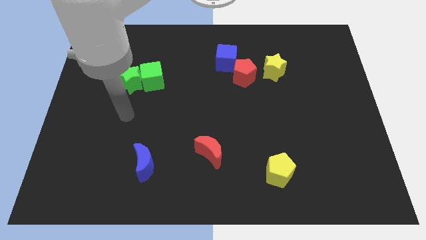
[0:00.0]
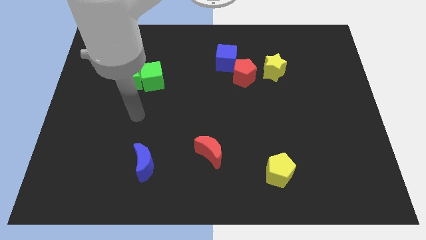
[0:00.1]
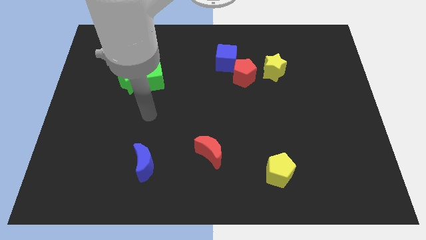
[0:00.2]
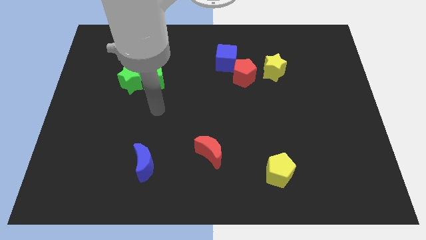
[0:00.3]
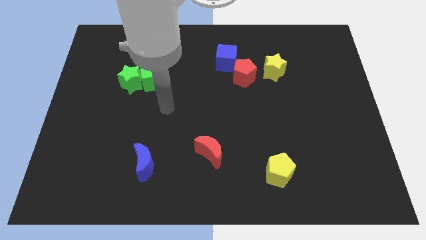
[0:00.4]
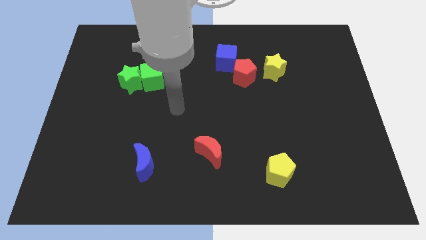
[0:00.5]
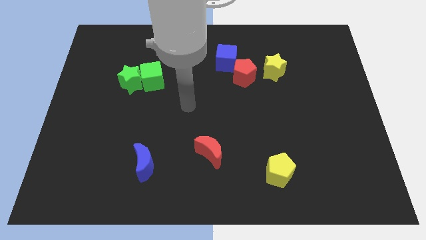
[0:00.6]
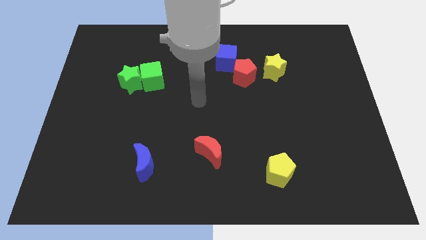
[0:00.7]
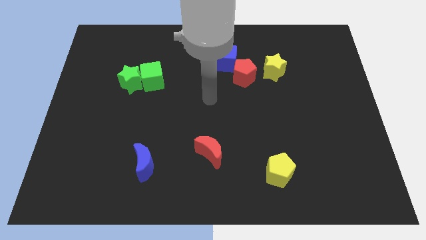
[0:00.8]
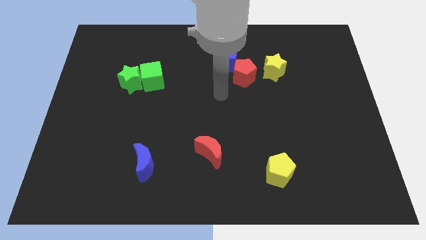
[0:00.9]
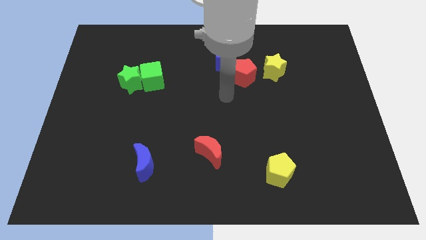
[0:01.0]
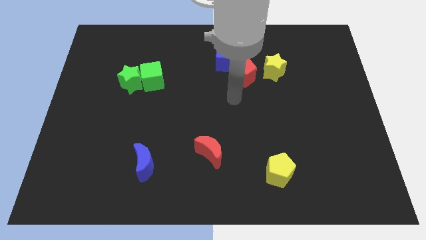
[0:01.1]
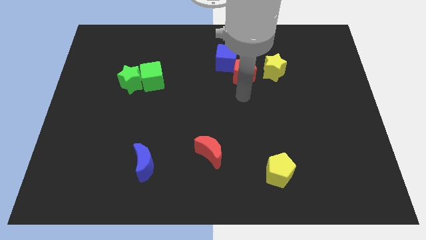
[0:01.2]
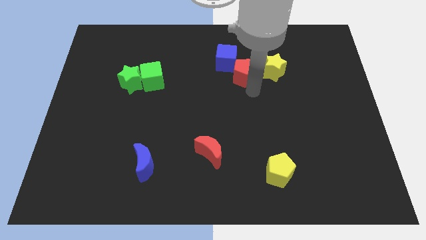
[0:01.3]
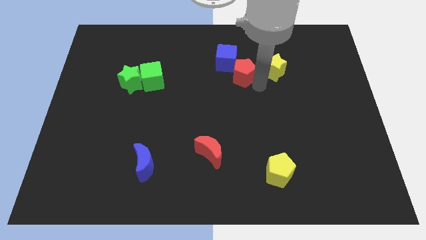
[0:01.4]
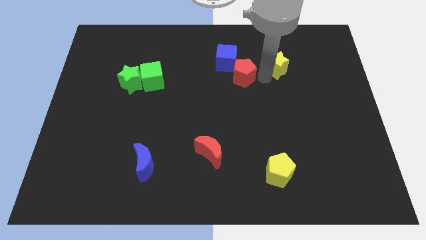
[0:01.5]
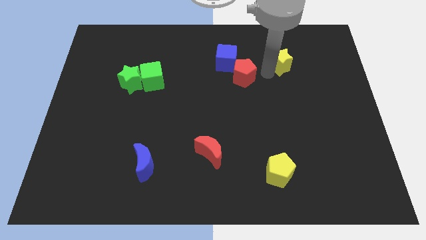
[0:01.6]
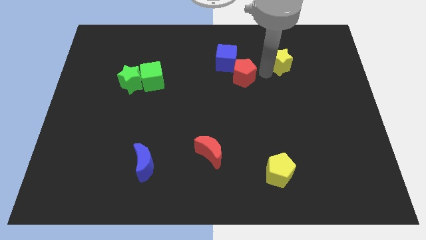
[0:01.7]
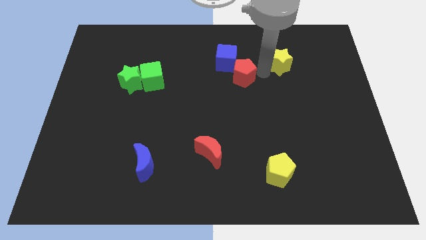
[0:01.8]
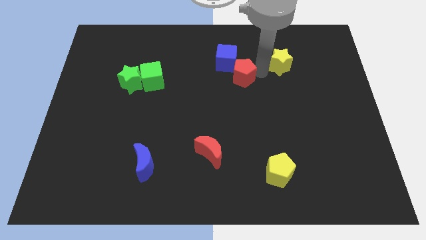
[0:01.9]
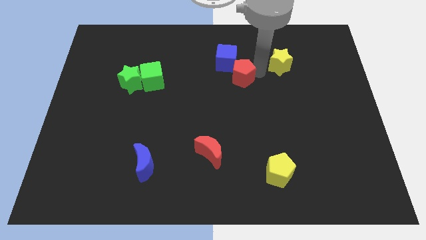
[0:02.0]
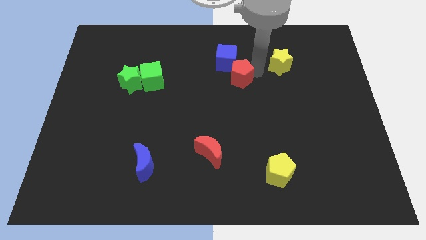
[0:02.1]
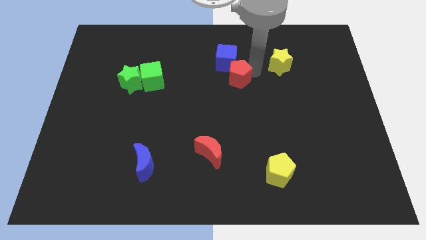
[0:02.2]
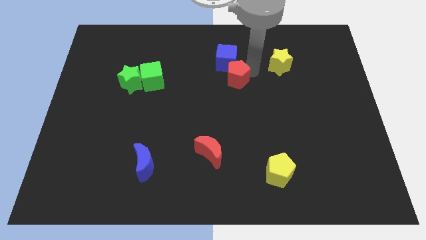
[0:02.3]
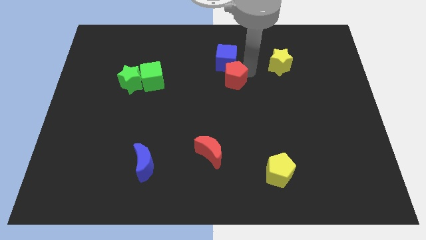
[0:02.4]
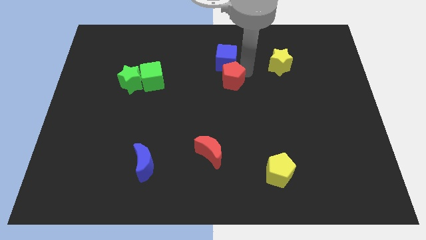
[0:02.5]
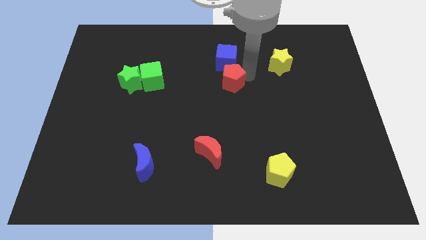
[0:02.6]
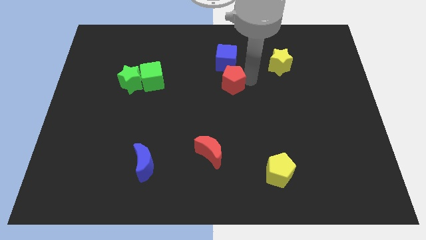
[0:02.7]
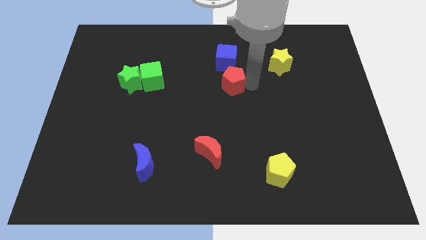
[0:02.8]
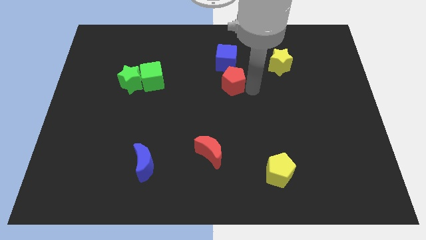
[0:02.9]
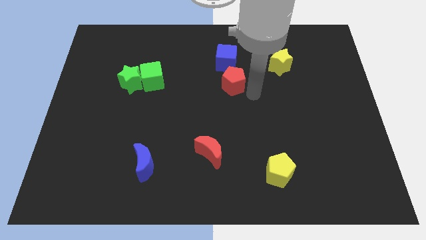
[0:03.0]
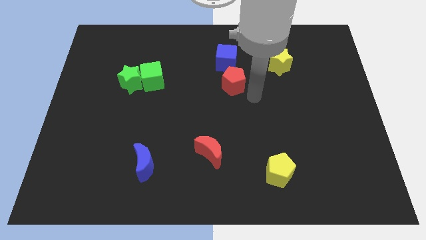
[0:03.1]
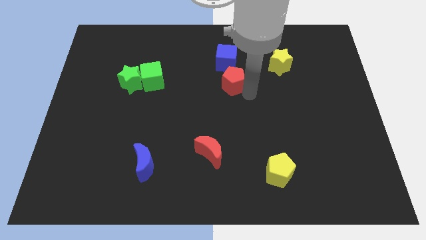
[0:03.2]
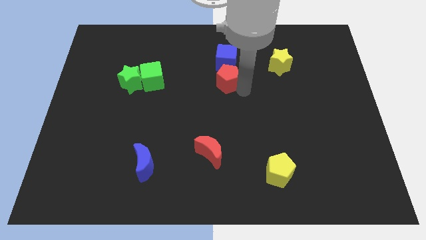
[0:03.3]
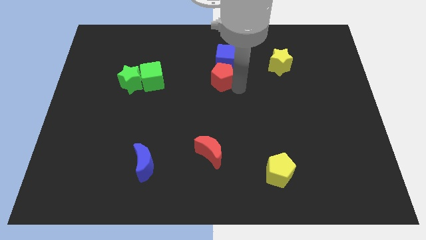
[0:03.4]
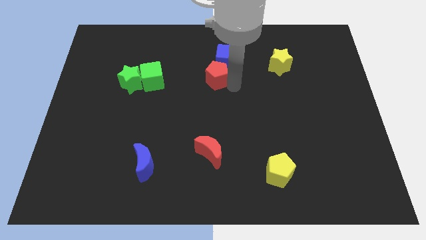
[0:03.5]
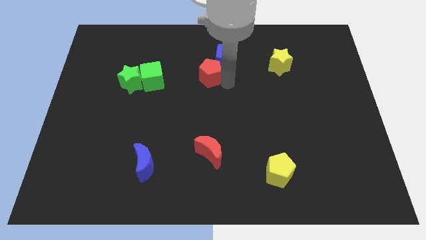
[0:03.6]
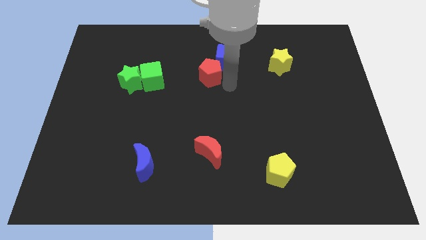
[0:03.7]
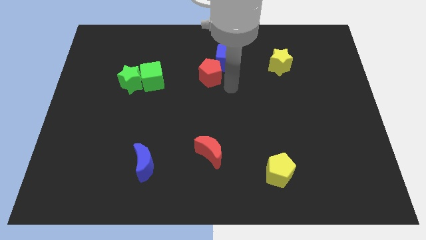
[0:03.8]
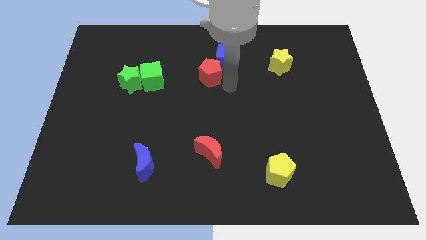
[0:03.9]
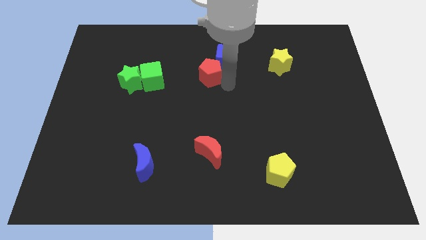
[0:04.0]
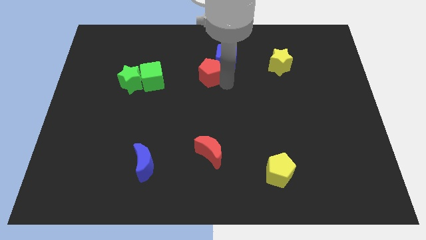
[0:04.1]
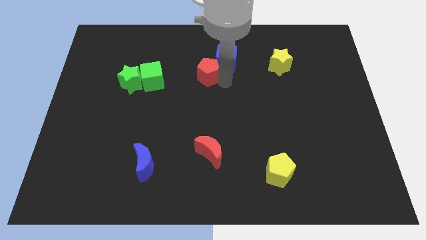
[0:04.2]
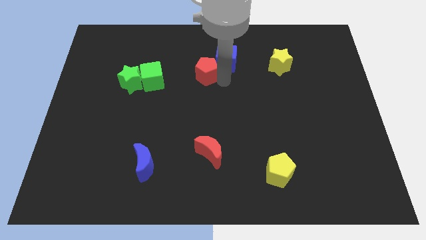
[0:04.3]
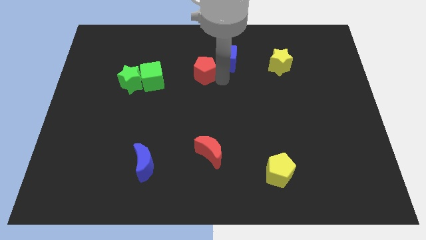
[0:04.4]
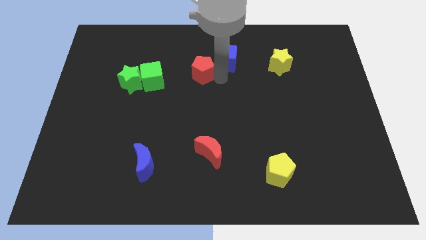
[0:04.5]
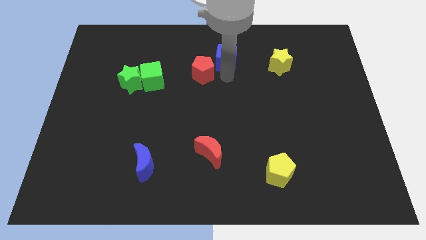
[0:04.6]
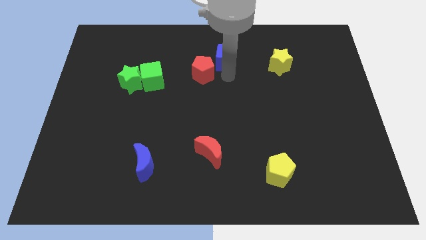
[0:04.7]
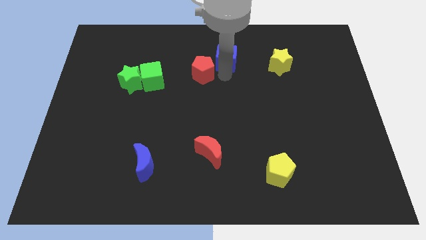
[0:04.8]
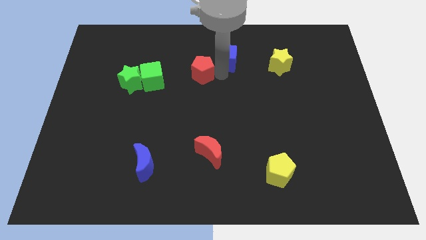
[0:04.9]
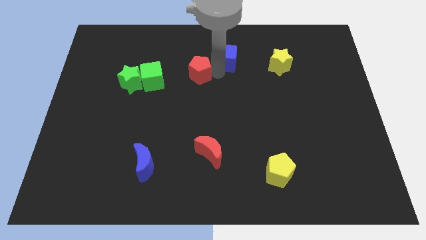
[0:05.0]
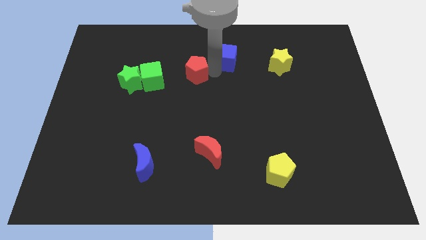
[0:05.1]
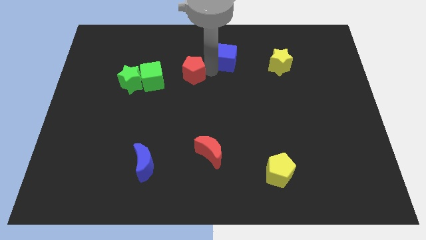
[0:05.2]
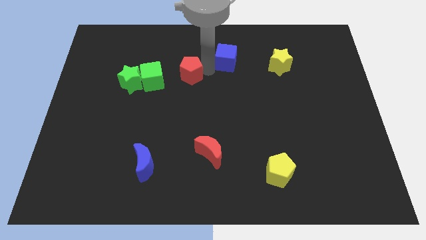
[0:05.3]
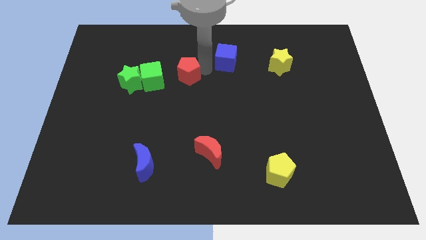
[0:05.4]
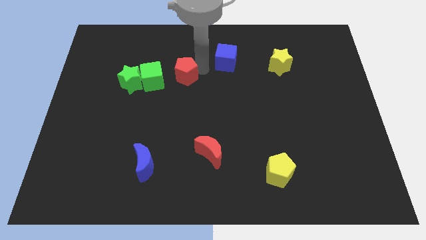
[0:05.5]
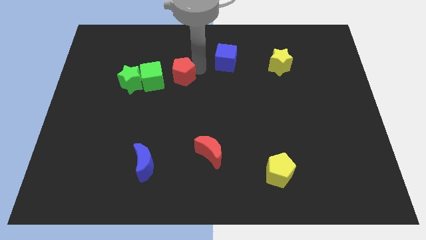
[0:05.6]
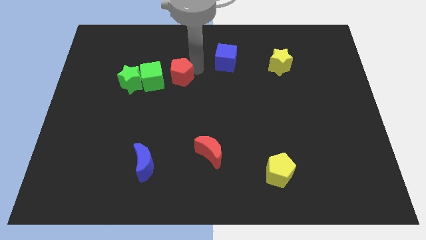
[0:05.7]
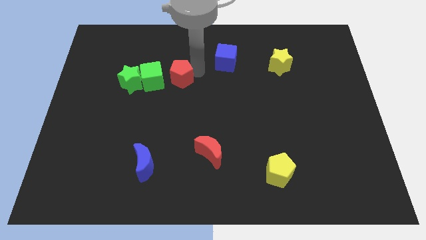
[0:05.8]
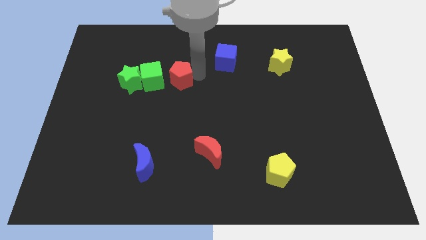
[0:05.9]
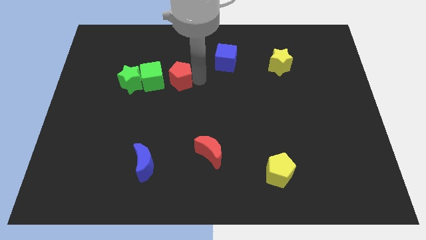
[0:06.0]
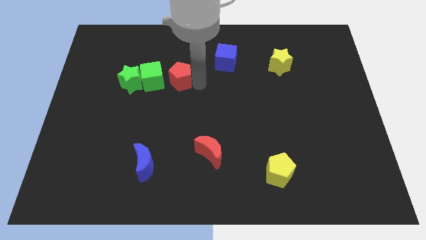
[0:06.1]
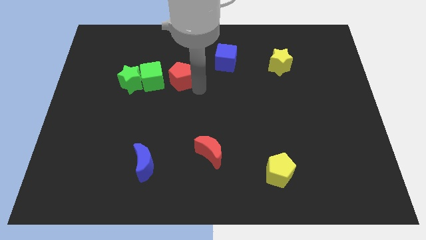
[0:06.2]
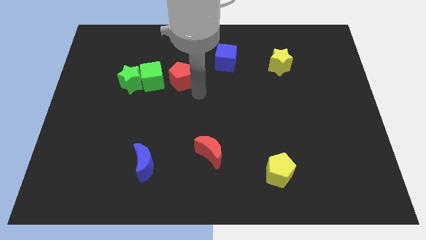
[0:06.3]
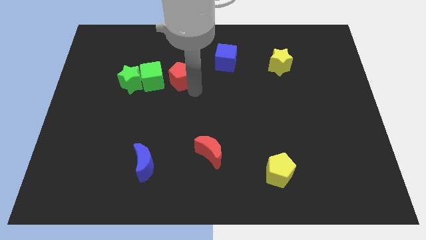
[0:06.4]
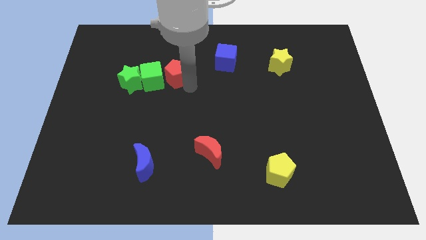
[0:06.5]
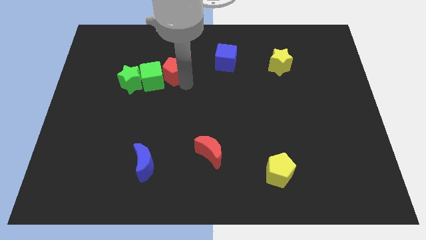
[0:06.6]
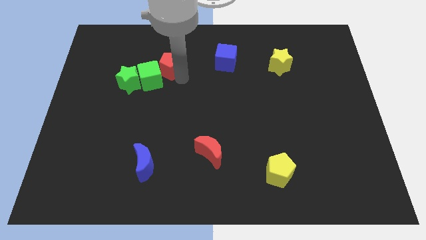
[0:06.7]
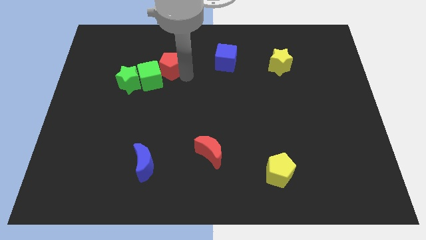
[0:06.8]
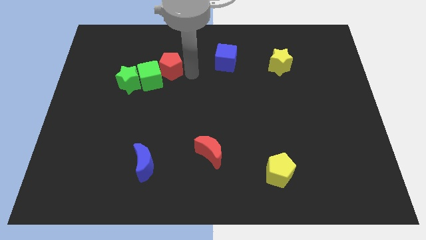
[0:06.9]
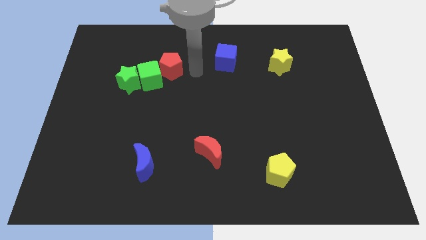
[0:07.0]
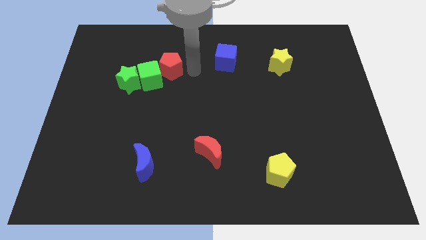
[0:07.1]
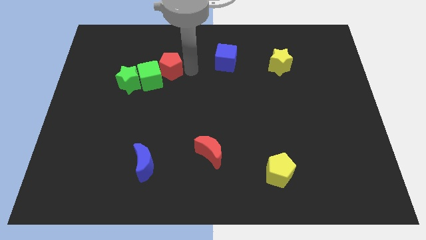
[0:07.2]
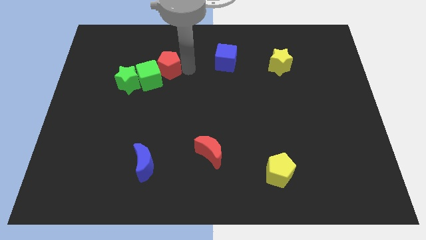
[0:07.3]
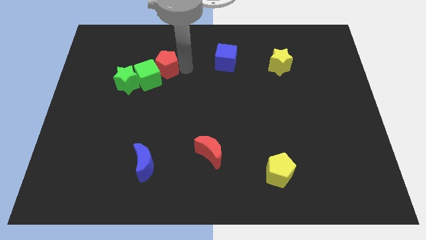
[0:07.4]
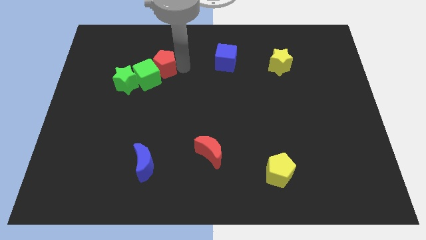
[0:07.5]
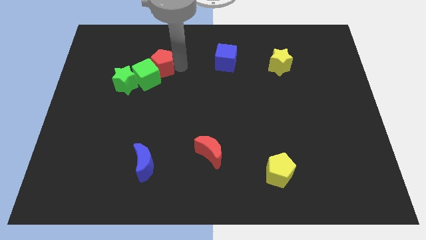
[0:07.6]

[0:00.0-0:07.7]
push the red pentagon to the left

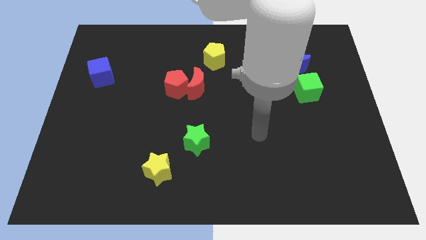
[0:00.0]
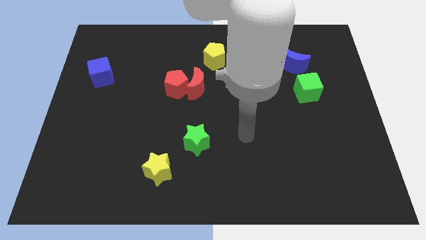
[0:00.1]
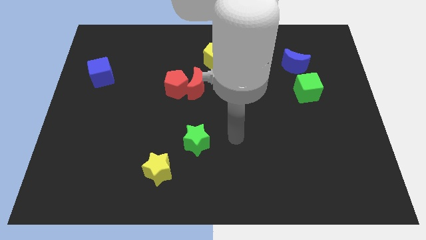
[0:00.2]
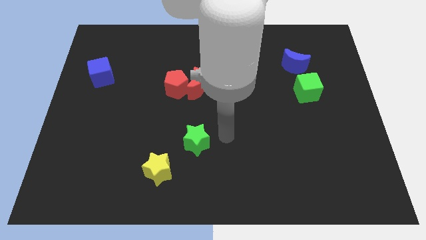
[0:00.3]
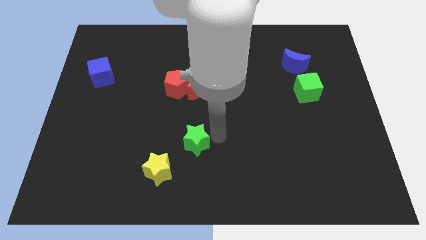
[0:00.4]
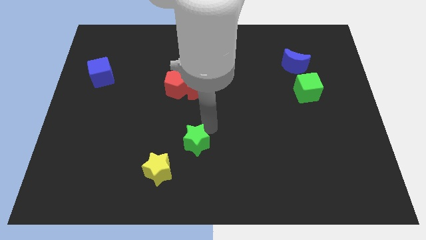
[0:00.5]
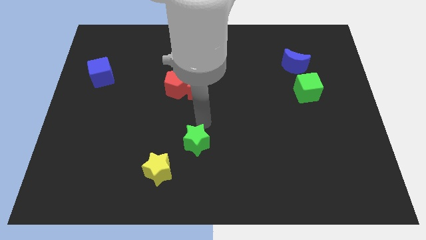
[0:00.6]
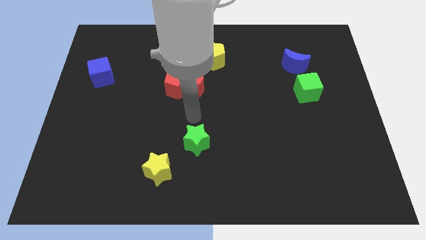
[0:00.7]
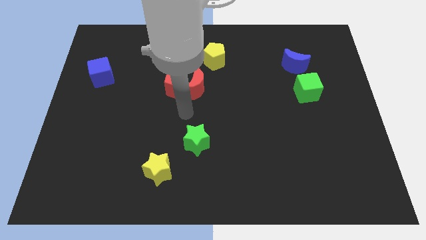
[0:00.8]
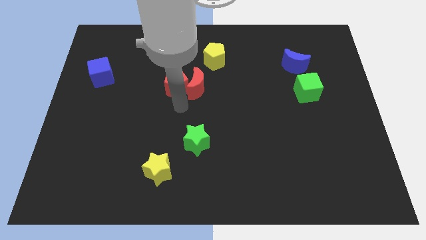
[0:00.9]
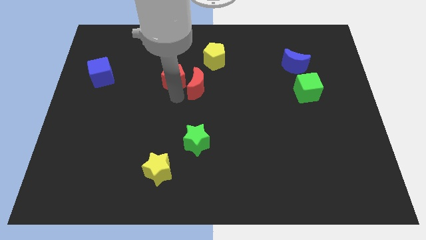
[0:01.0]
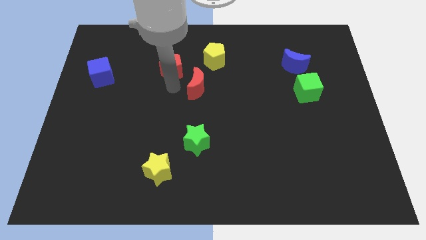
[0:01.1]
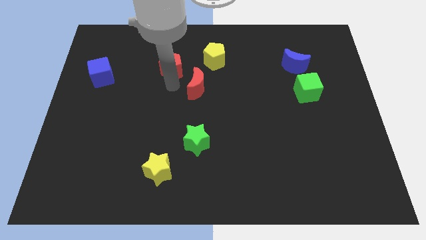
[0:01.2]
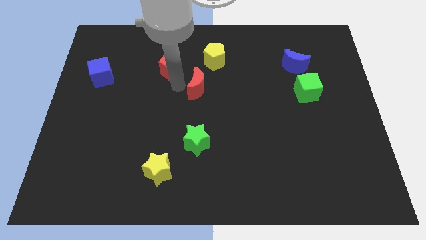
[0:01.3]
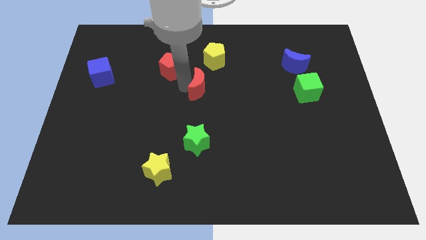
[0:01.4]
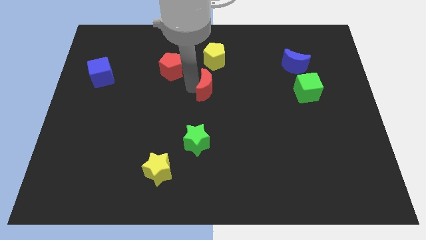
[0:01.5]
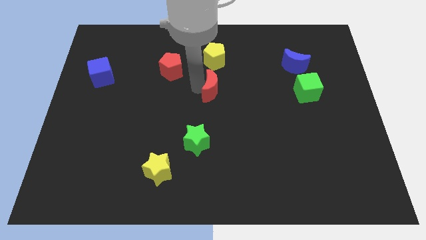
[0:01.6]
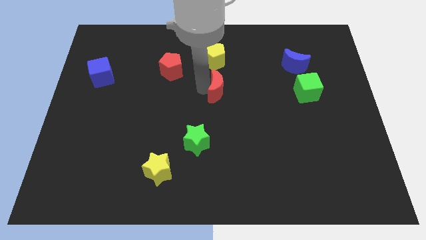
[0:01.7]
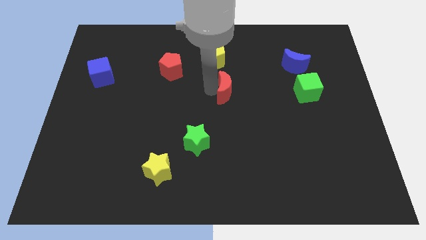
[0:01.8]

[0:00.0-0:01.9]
move the red moon somewhat to the right
